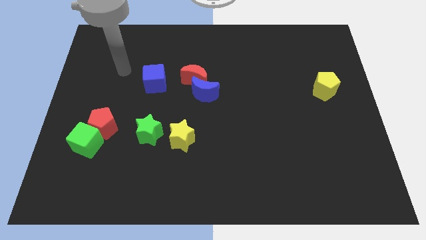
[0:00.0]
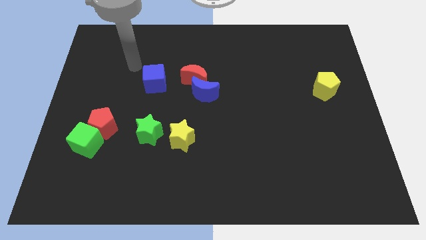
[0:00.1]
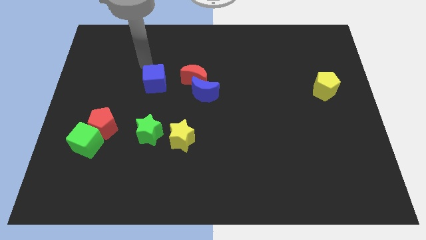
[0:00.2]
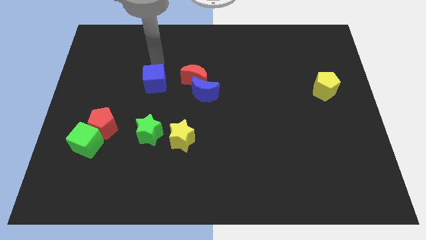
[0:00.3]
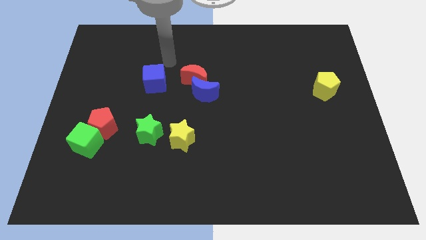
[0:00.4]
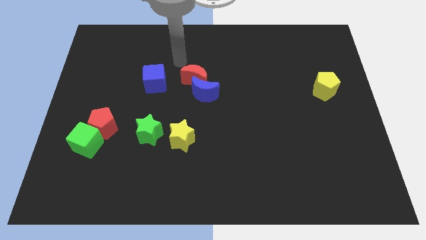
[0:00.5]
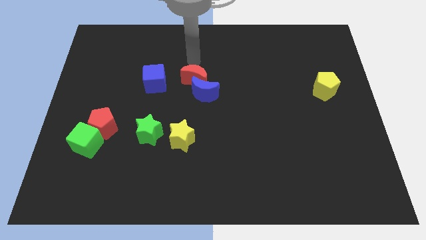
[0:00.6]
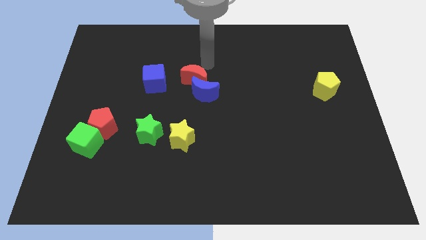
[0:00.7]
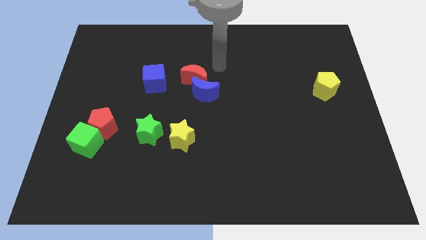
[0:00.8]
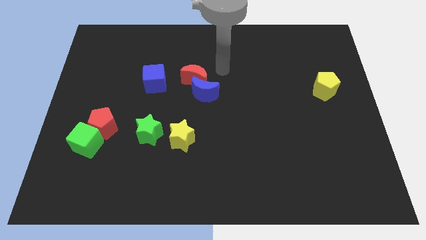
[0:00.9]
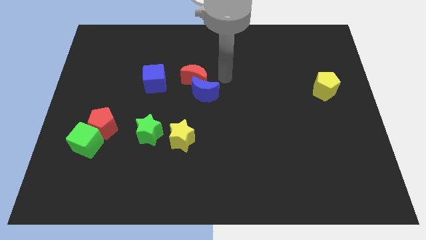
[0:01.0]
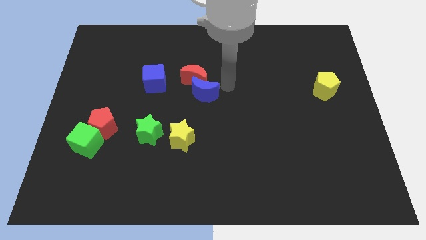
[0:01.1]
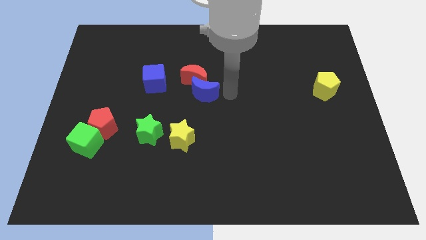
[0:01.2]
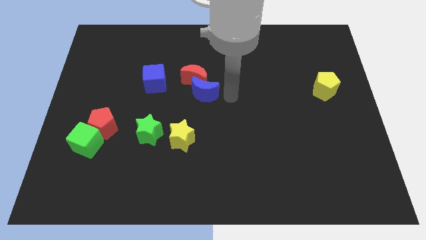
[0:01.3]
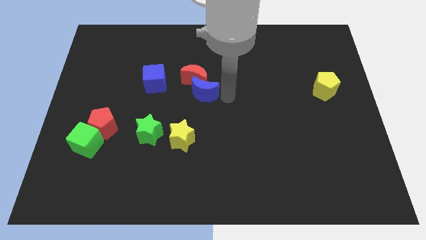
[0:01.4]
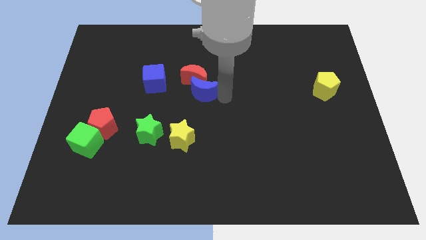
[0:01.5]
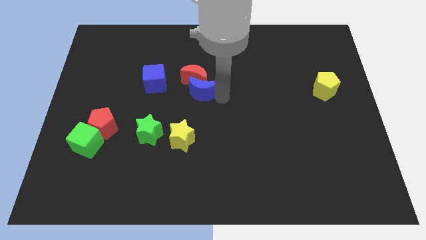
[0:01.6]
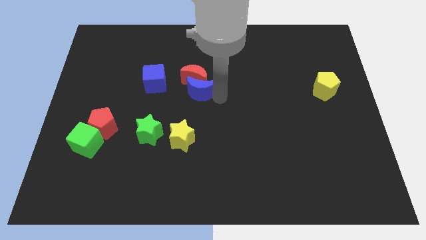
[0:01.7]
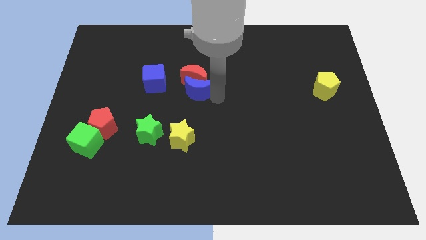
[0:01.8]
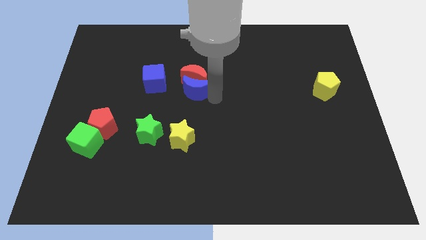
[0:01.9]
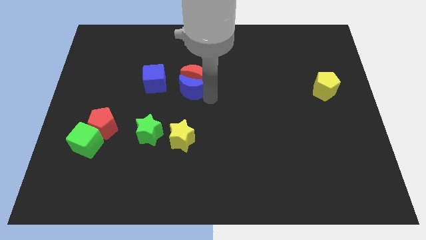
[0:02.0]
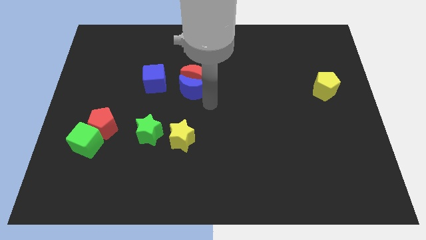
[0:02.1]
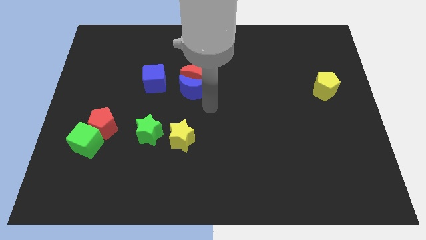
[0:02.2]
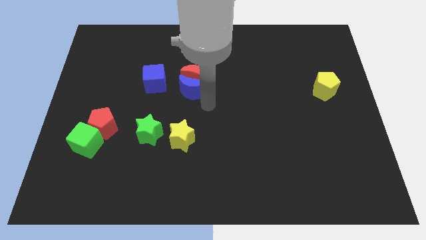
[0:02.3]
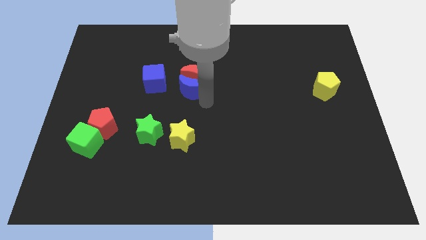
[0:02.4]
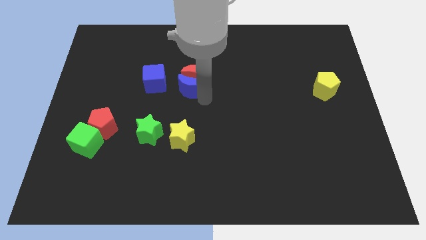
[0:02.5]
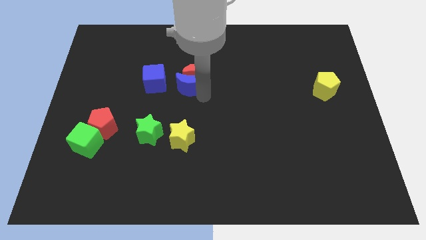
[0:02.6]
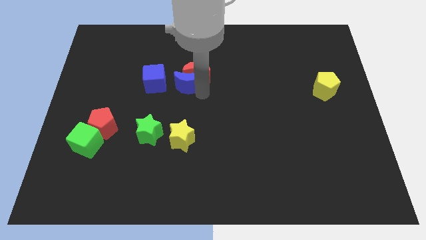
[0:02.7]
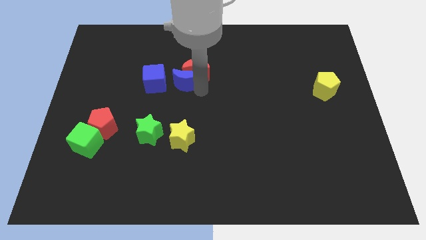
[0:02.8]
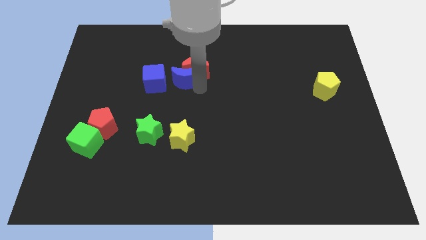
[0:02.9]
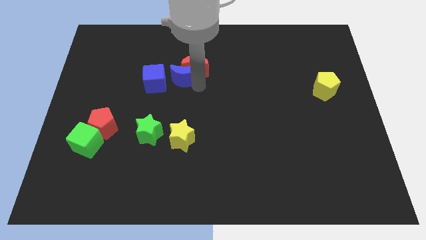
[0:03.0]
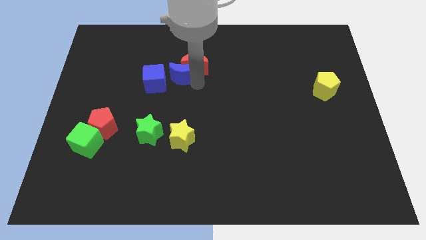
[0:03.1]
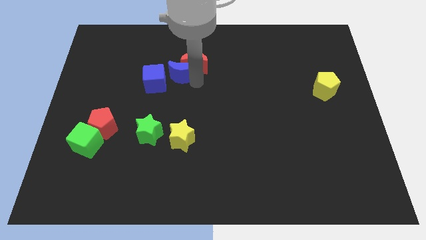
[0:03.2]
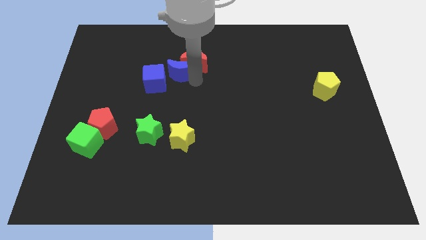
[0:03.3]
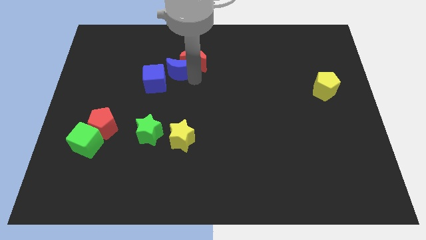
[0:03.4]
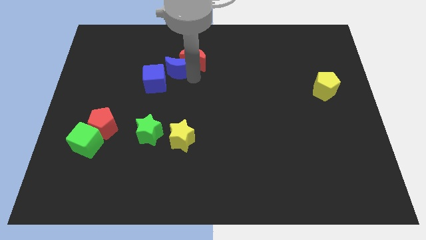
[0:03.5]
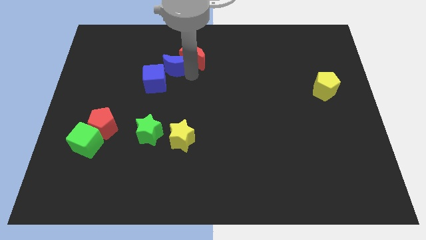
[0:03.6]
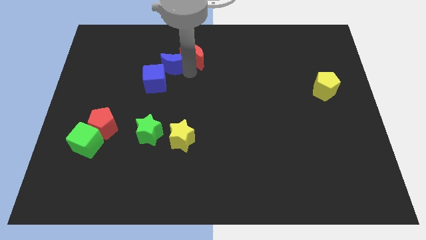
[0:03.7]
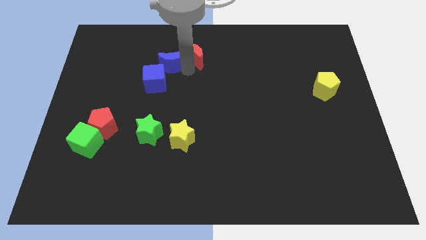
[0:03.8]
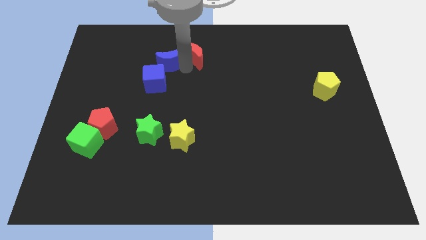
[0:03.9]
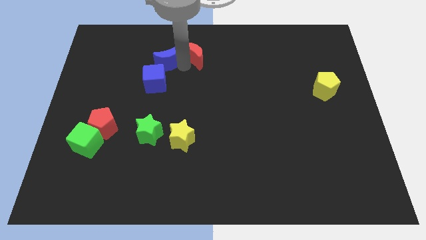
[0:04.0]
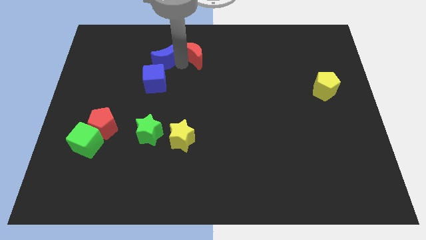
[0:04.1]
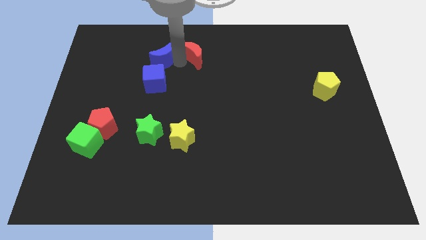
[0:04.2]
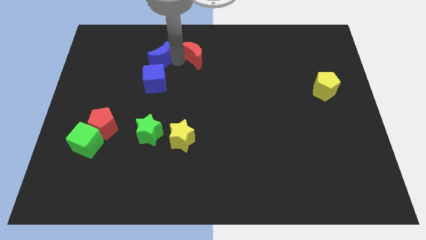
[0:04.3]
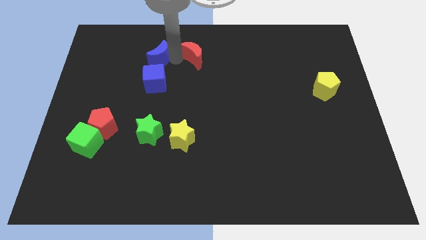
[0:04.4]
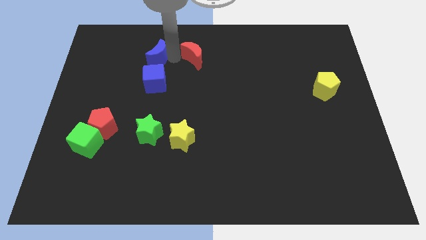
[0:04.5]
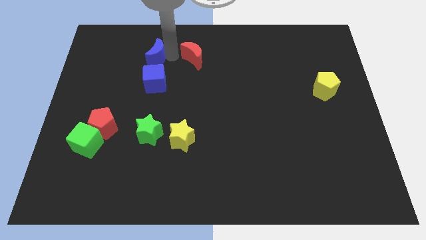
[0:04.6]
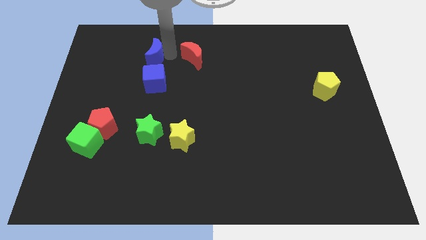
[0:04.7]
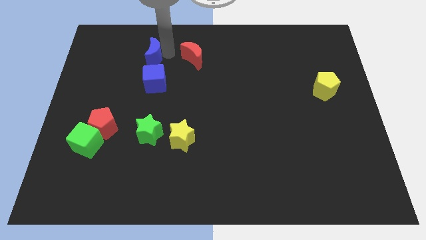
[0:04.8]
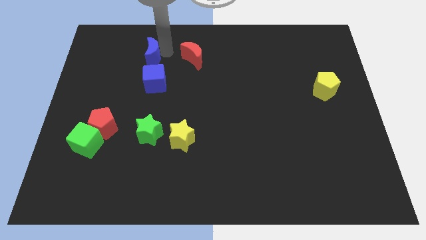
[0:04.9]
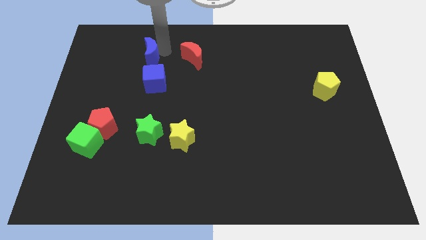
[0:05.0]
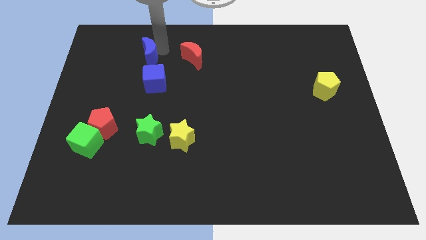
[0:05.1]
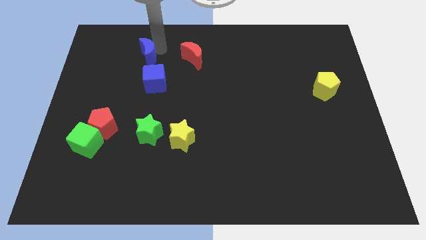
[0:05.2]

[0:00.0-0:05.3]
push the blue moon to the top left side of the blue cube

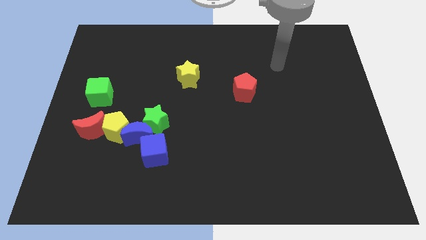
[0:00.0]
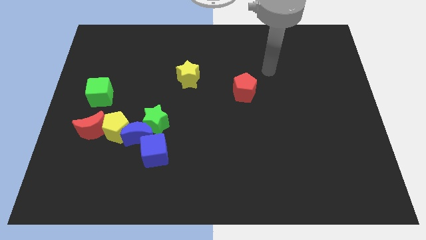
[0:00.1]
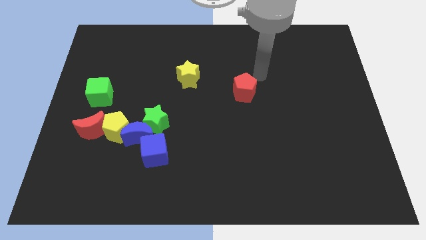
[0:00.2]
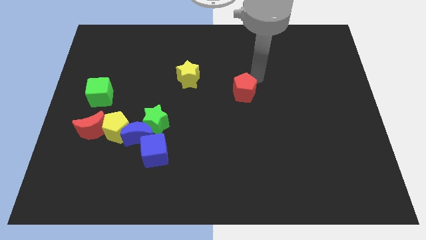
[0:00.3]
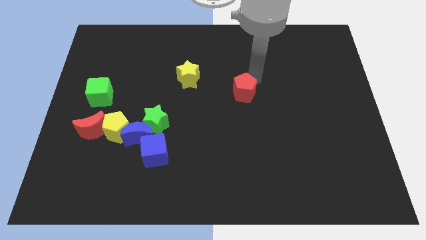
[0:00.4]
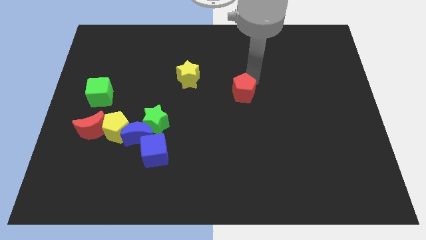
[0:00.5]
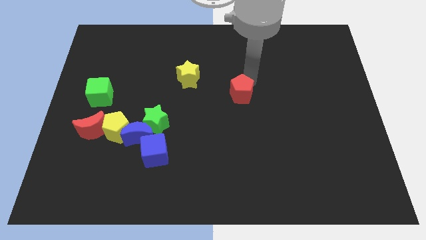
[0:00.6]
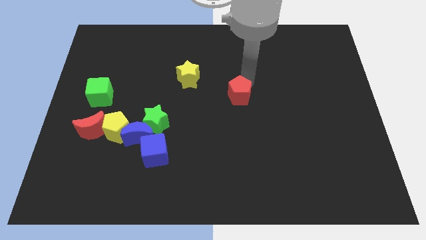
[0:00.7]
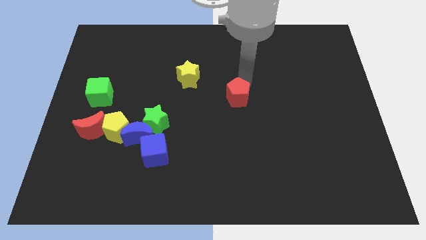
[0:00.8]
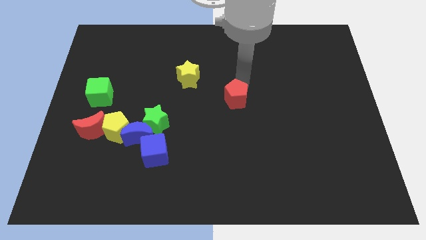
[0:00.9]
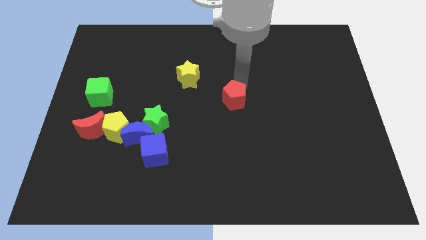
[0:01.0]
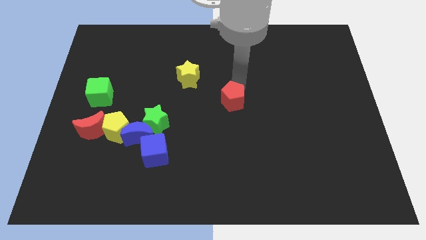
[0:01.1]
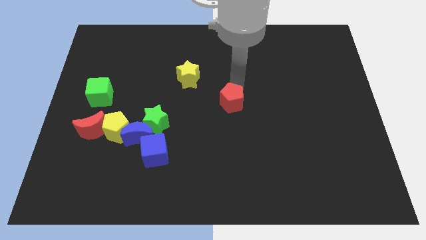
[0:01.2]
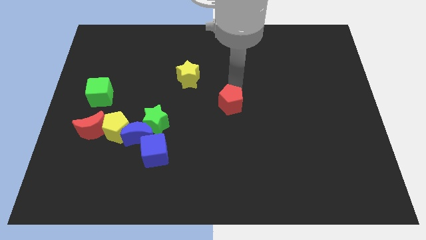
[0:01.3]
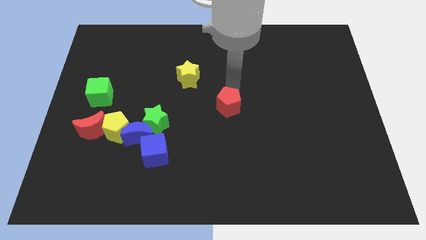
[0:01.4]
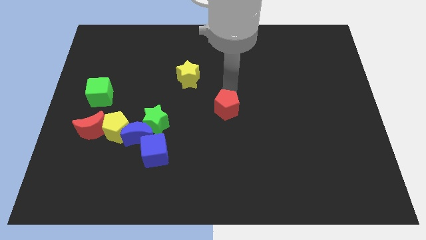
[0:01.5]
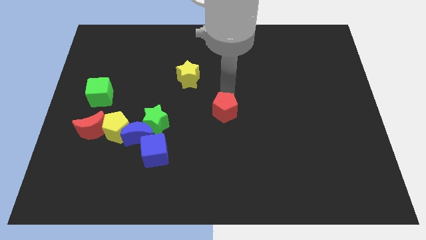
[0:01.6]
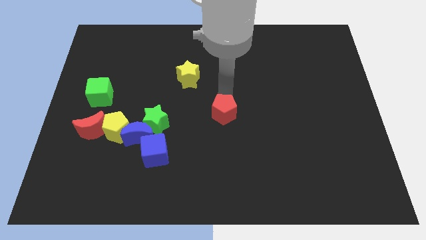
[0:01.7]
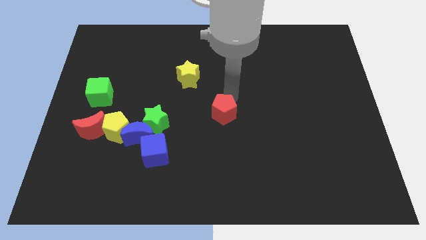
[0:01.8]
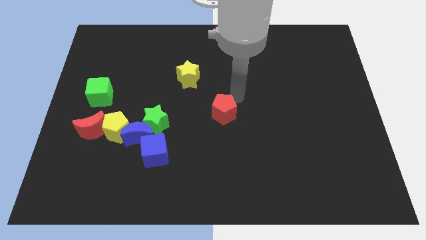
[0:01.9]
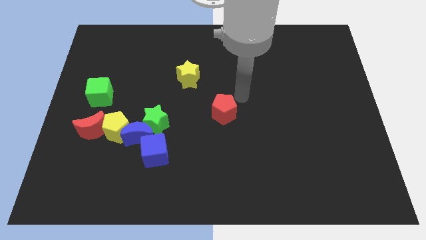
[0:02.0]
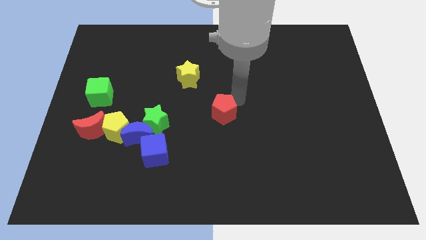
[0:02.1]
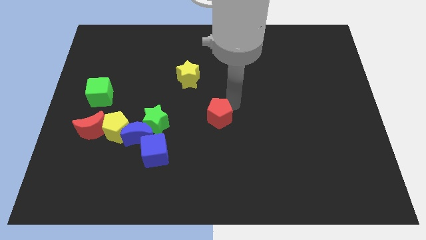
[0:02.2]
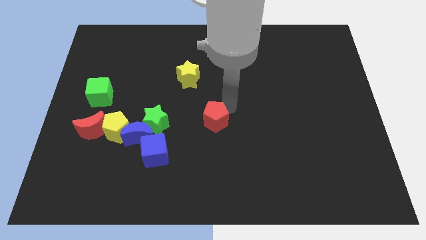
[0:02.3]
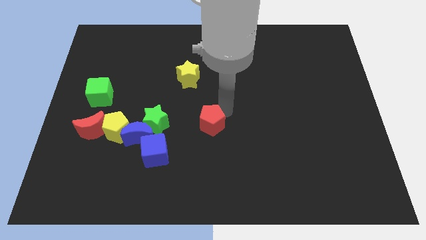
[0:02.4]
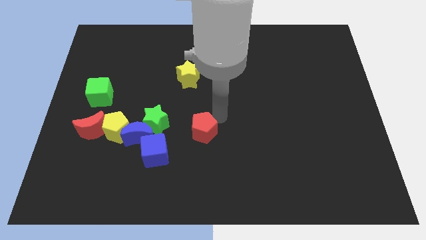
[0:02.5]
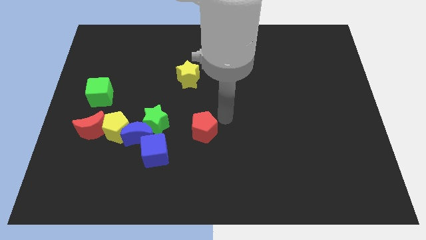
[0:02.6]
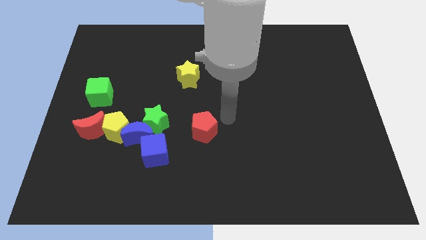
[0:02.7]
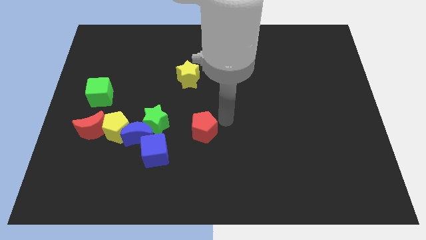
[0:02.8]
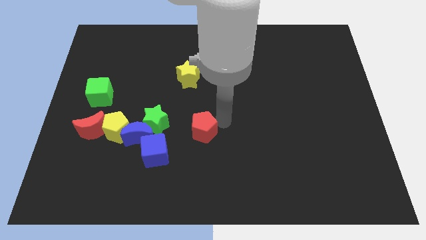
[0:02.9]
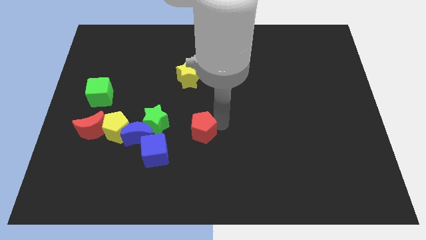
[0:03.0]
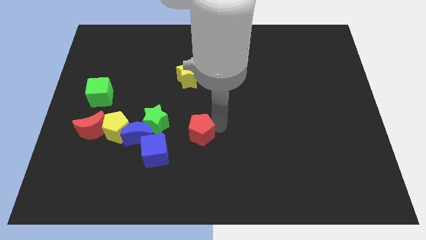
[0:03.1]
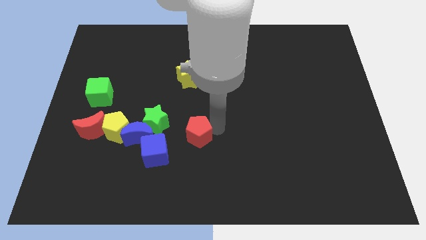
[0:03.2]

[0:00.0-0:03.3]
slide the red pentagon to the bottom right side of the green star
